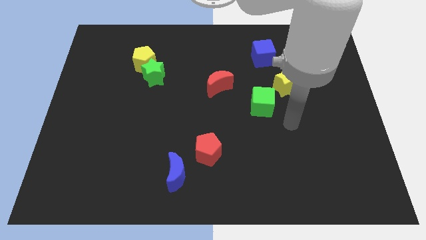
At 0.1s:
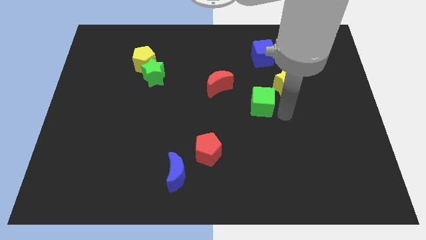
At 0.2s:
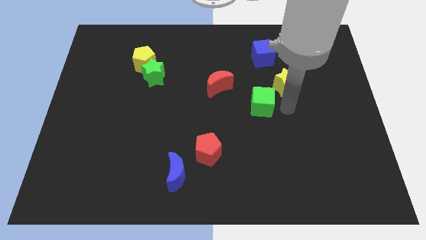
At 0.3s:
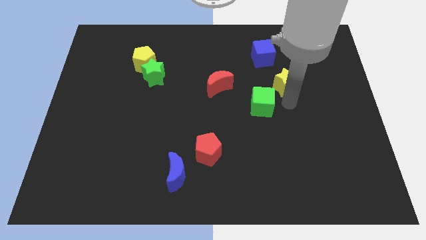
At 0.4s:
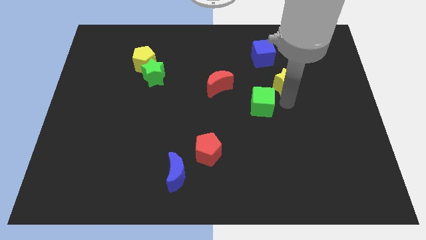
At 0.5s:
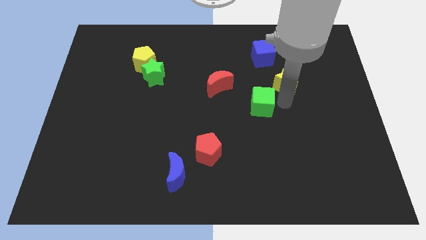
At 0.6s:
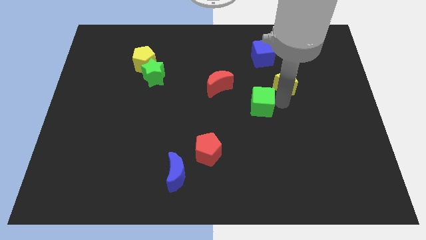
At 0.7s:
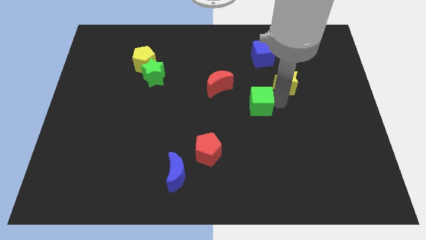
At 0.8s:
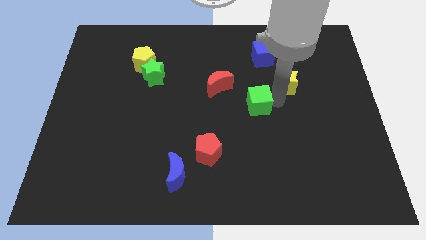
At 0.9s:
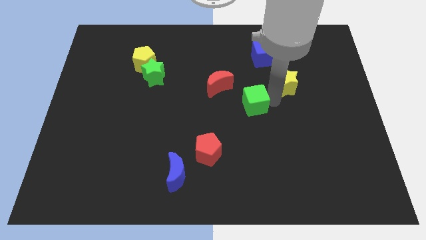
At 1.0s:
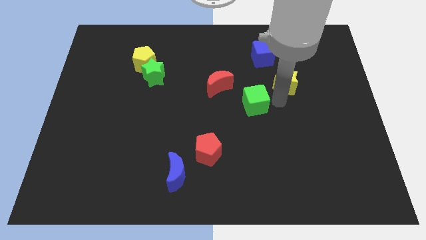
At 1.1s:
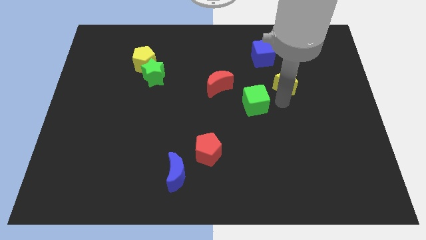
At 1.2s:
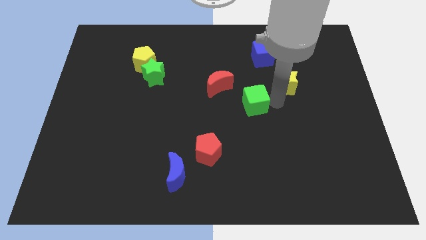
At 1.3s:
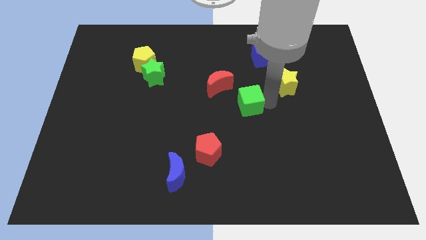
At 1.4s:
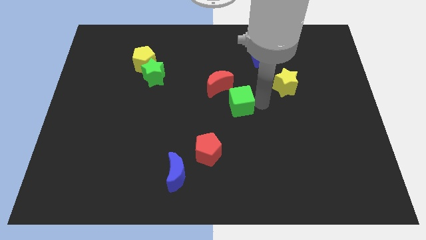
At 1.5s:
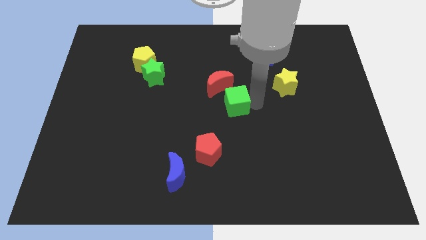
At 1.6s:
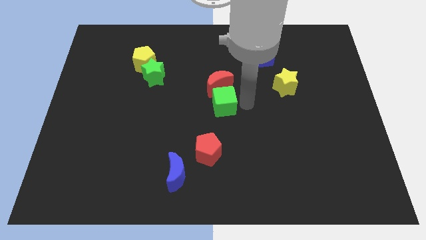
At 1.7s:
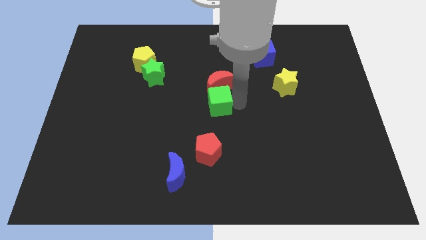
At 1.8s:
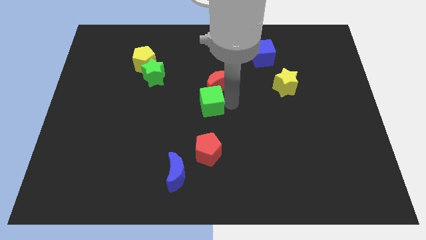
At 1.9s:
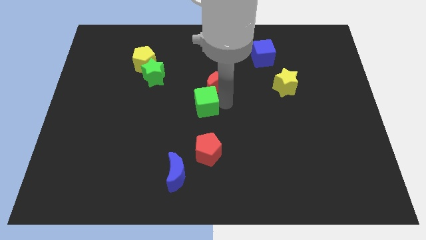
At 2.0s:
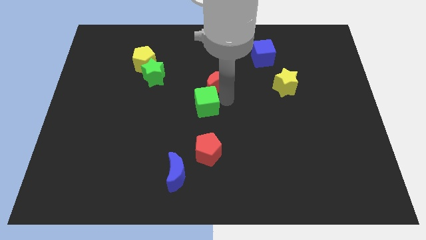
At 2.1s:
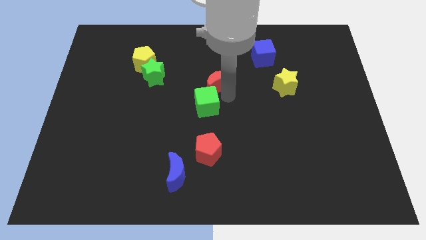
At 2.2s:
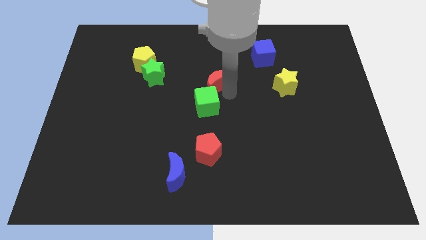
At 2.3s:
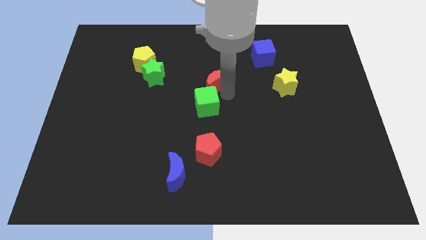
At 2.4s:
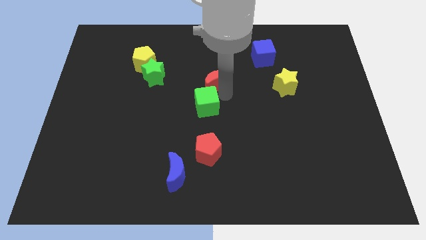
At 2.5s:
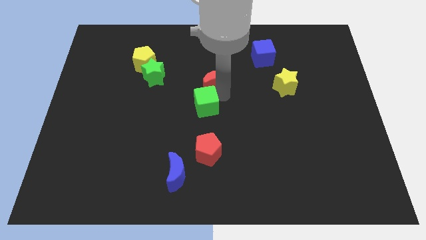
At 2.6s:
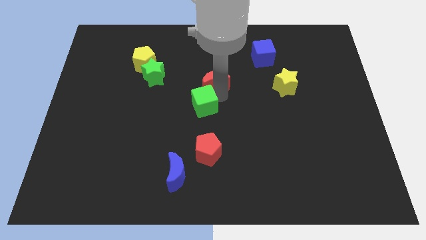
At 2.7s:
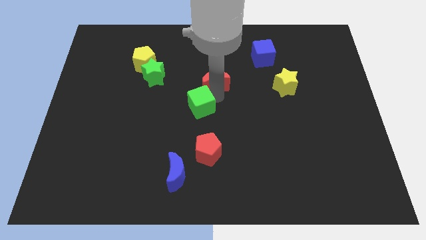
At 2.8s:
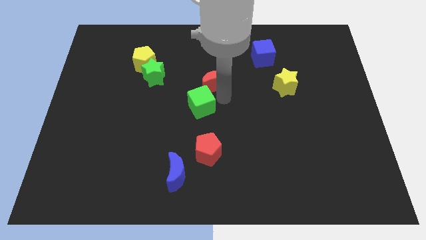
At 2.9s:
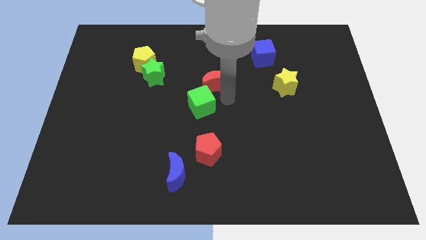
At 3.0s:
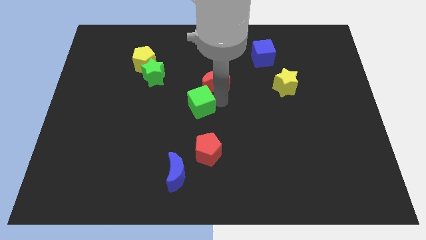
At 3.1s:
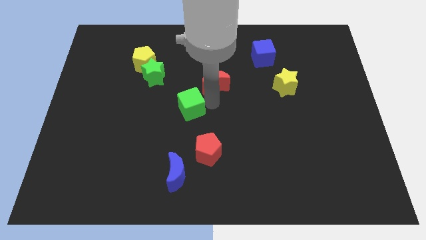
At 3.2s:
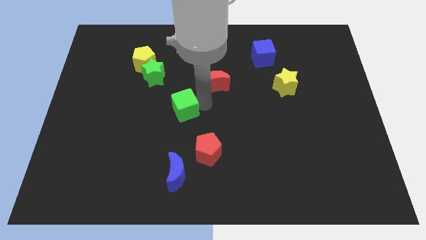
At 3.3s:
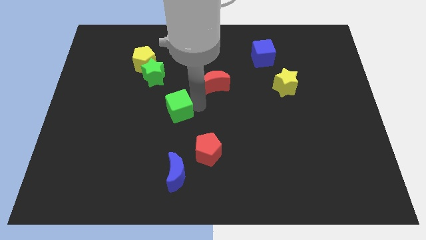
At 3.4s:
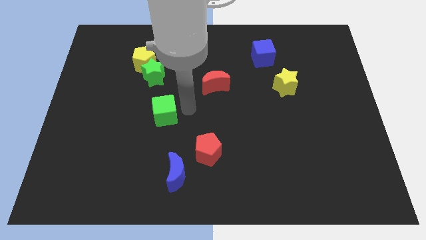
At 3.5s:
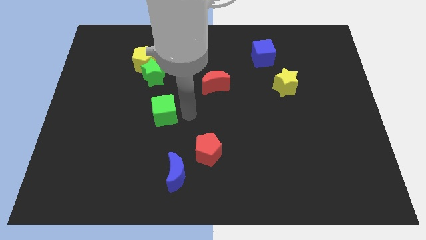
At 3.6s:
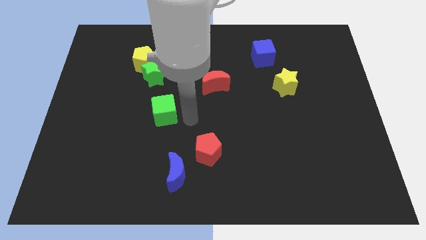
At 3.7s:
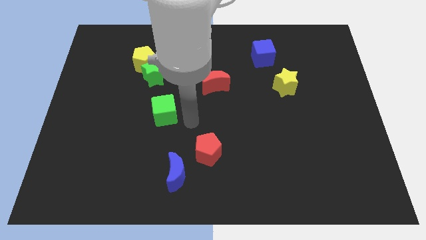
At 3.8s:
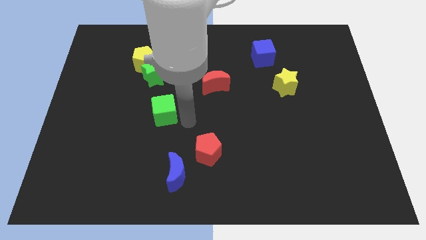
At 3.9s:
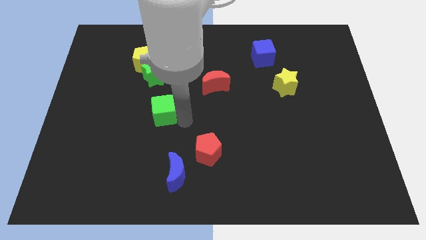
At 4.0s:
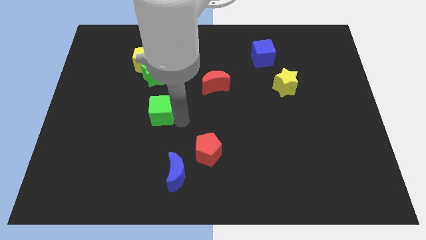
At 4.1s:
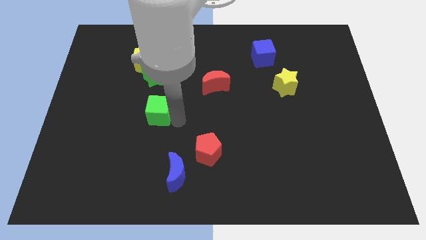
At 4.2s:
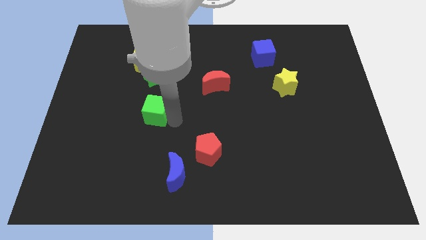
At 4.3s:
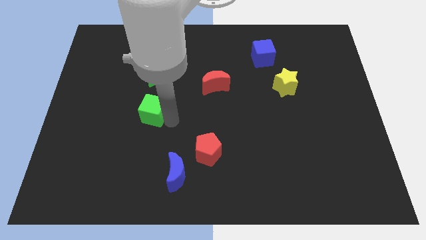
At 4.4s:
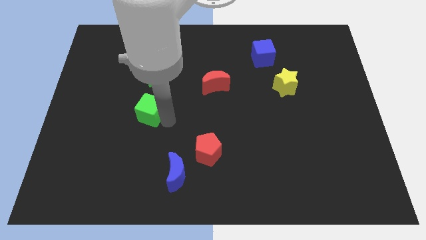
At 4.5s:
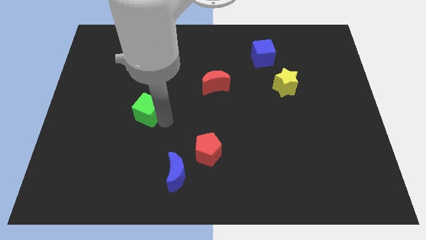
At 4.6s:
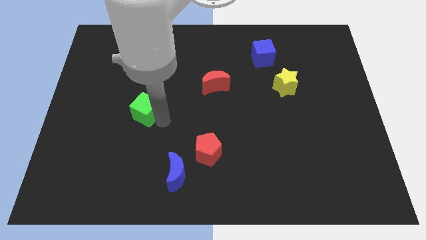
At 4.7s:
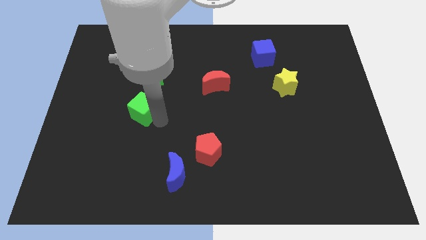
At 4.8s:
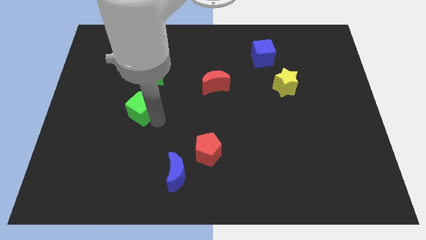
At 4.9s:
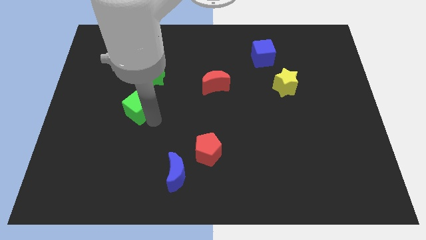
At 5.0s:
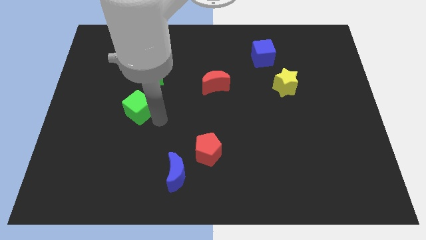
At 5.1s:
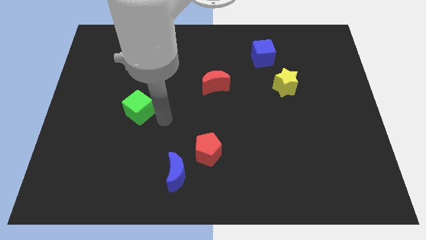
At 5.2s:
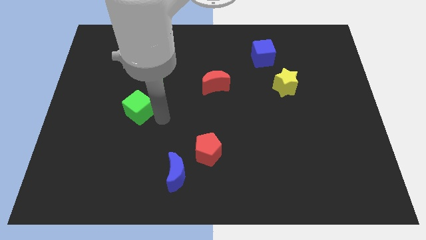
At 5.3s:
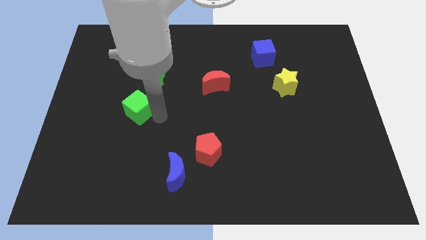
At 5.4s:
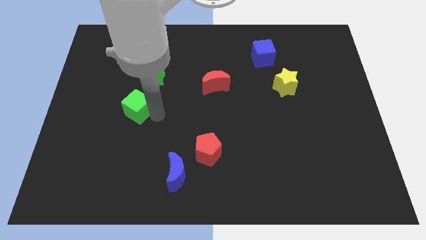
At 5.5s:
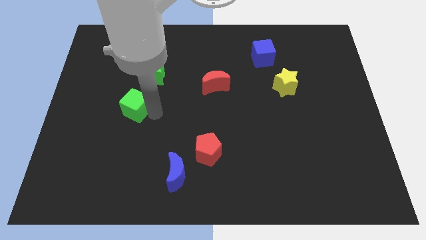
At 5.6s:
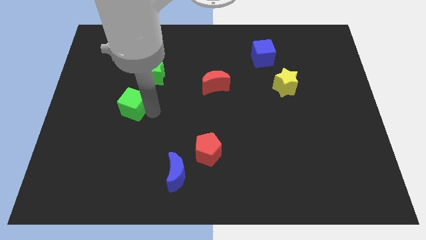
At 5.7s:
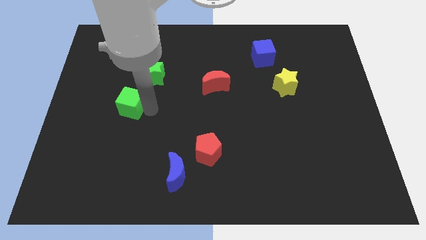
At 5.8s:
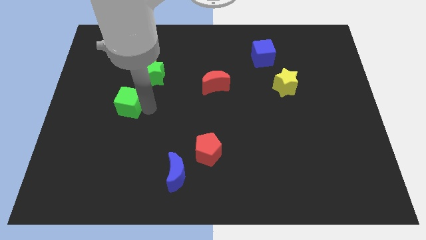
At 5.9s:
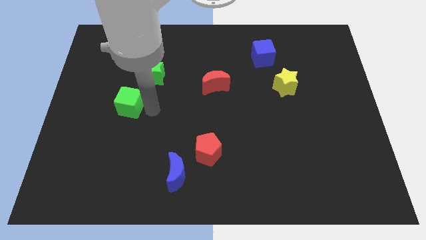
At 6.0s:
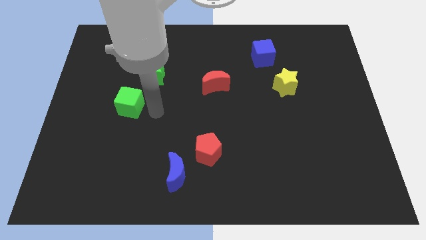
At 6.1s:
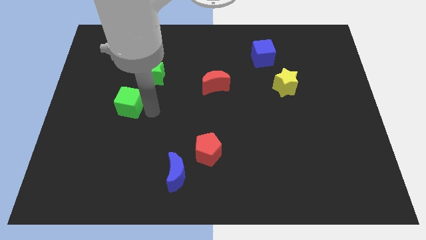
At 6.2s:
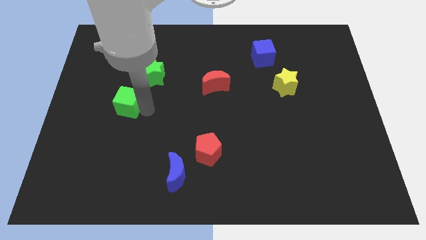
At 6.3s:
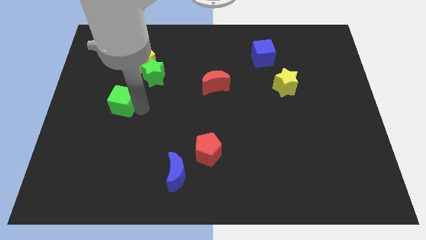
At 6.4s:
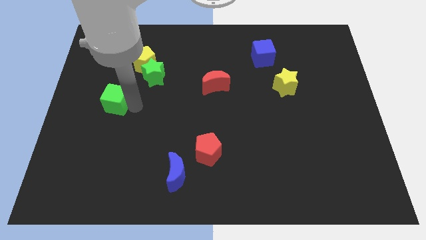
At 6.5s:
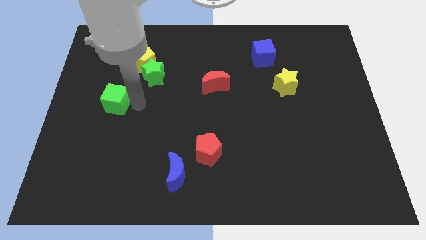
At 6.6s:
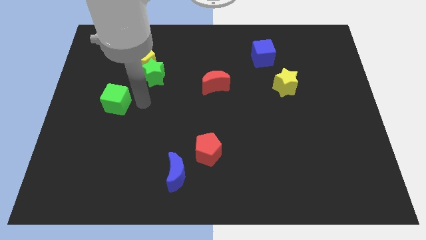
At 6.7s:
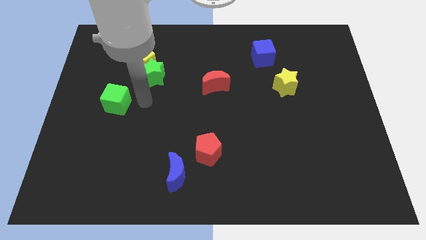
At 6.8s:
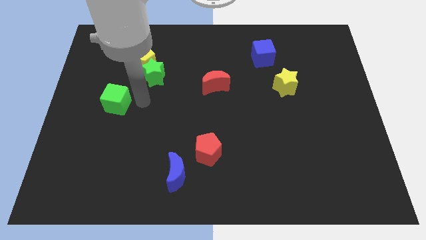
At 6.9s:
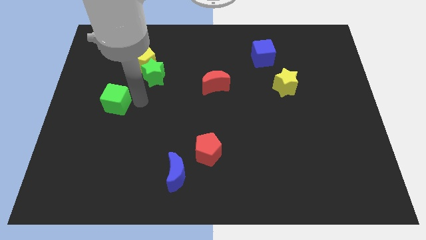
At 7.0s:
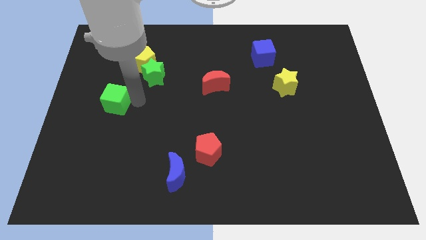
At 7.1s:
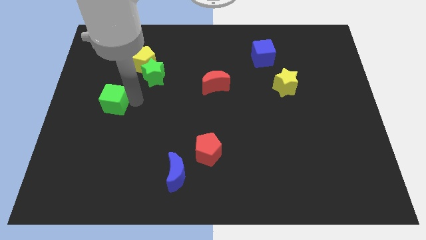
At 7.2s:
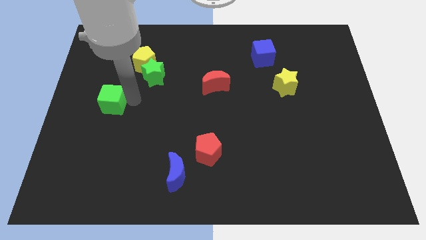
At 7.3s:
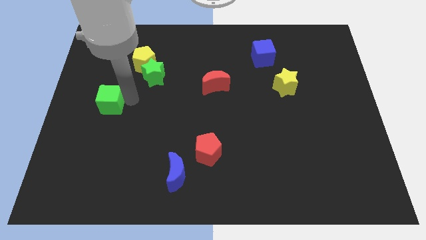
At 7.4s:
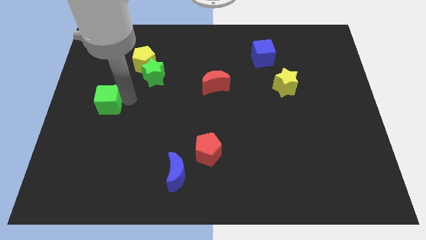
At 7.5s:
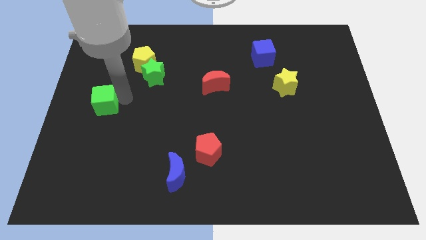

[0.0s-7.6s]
slide the green cube to the left side
